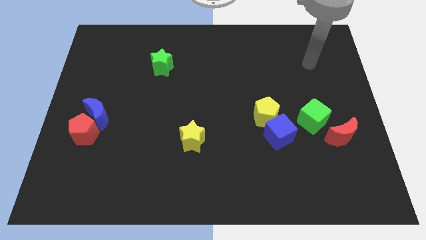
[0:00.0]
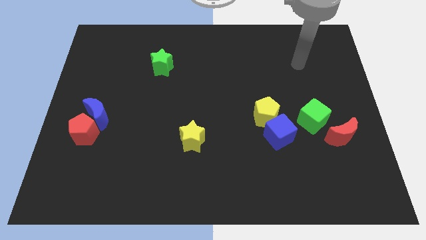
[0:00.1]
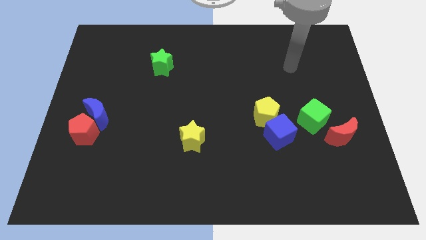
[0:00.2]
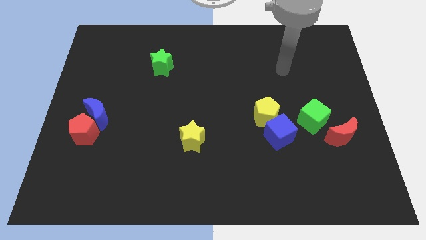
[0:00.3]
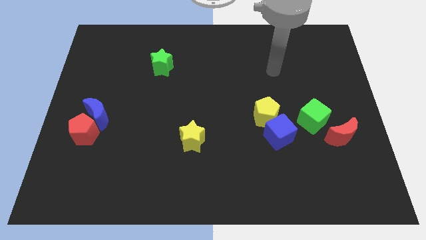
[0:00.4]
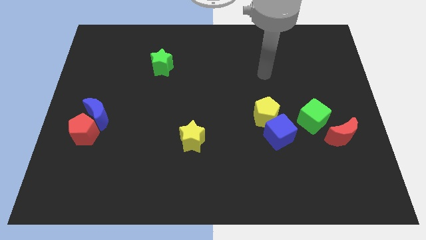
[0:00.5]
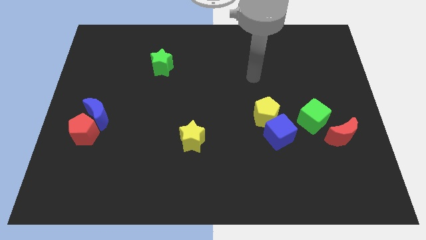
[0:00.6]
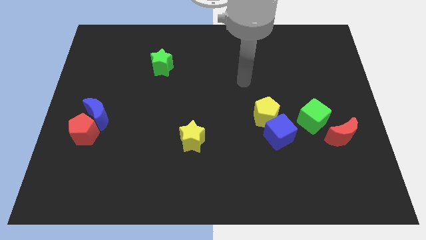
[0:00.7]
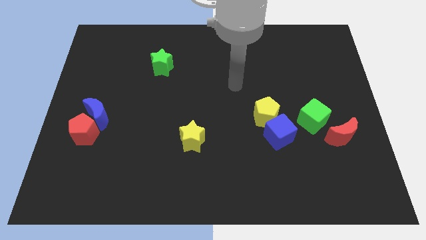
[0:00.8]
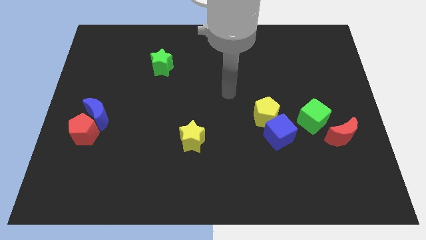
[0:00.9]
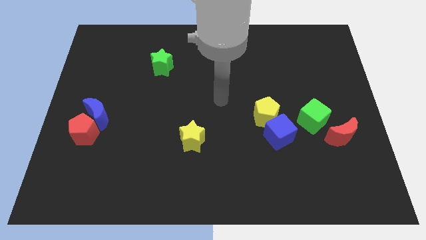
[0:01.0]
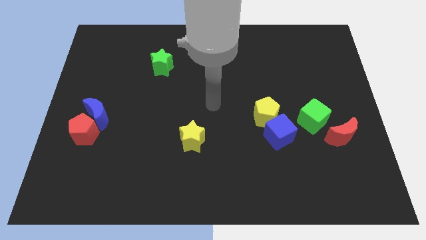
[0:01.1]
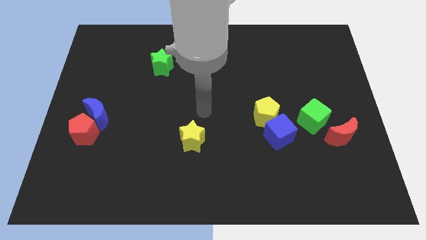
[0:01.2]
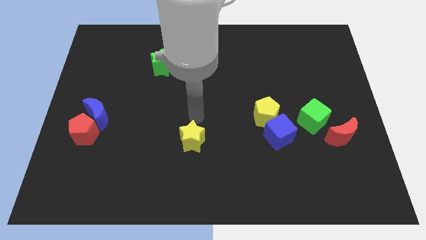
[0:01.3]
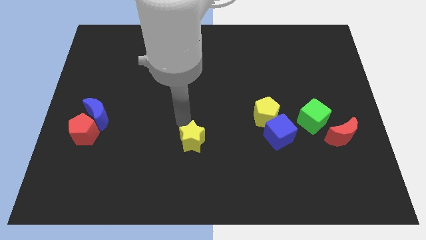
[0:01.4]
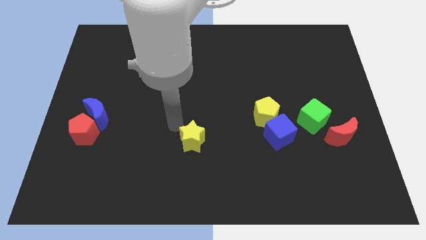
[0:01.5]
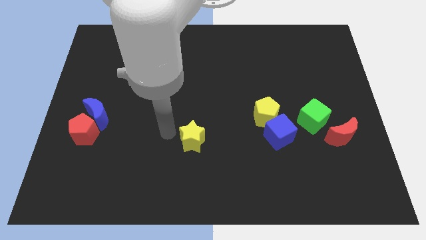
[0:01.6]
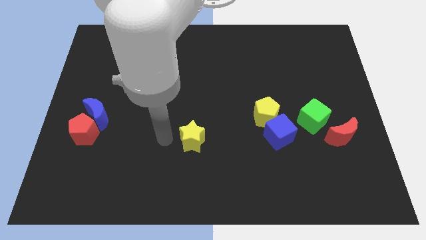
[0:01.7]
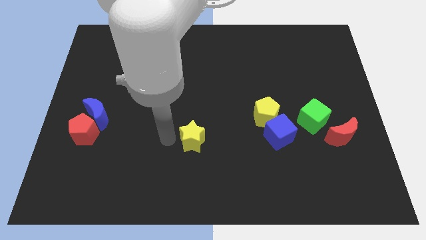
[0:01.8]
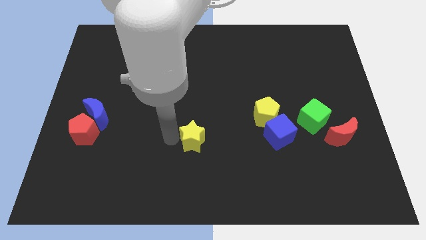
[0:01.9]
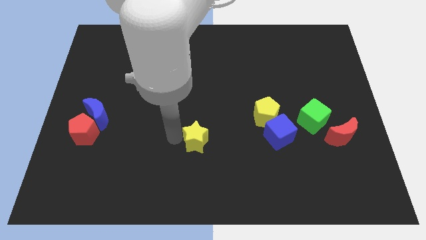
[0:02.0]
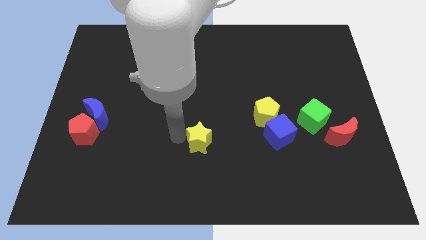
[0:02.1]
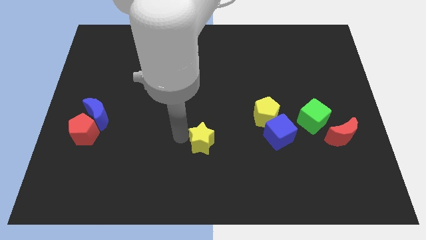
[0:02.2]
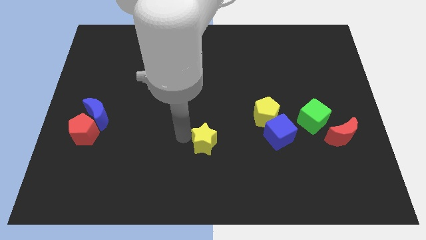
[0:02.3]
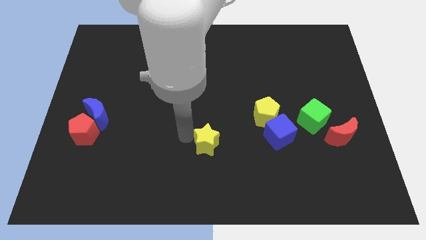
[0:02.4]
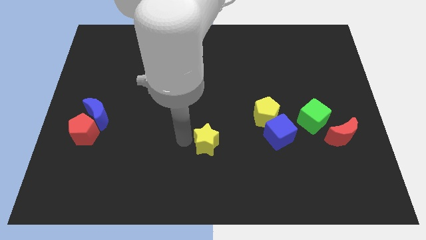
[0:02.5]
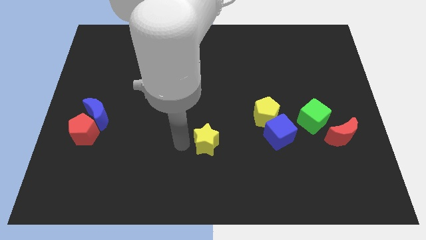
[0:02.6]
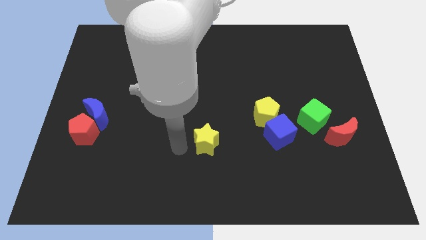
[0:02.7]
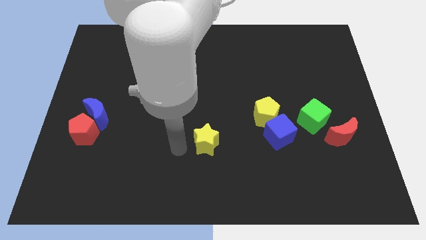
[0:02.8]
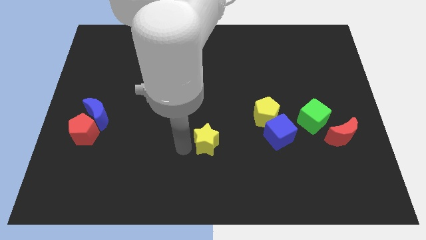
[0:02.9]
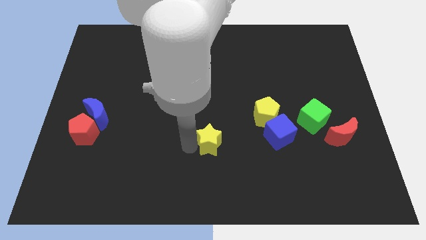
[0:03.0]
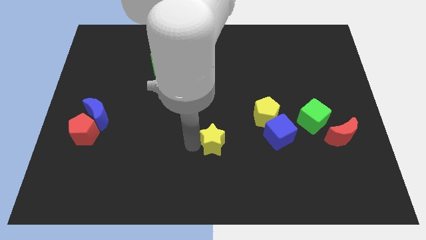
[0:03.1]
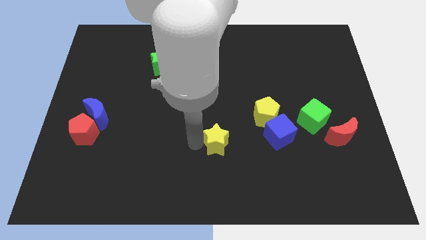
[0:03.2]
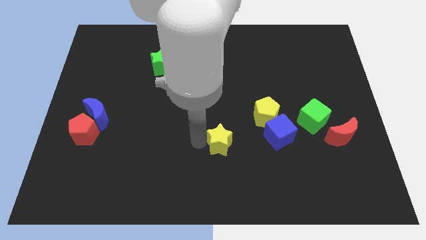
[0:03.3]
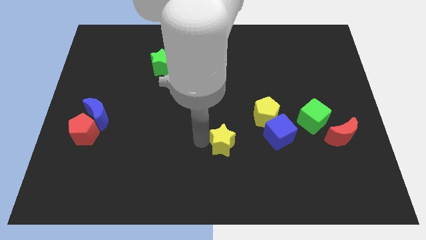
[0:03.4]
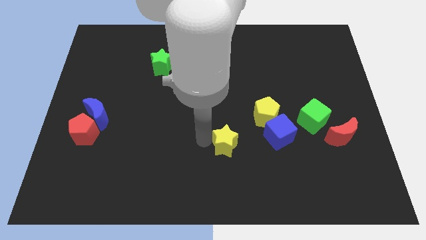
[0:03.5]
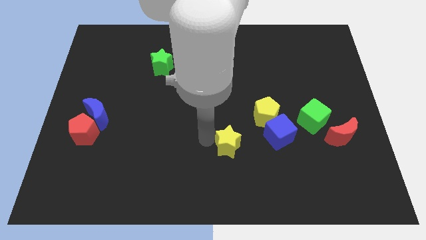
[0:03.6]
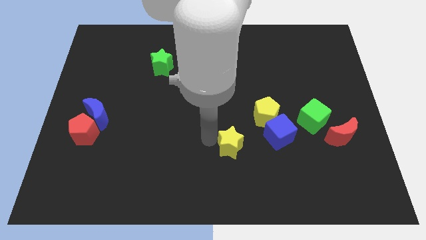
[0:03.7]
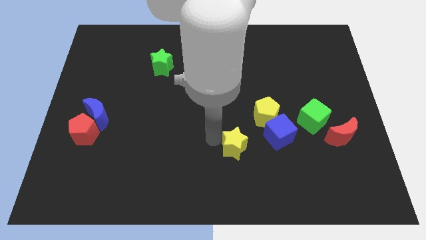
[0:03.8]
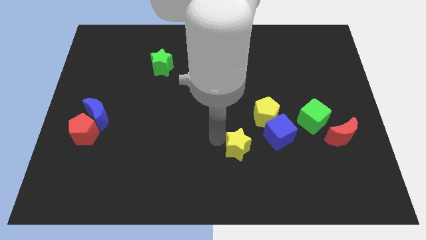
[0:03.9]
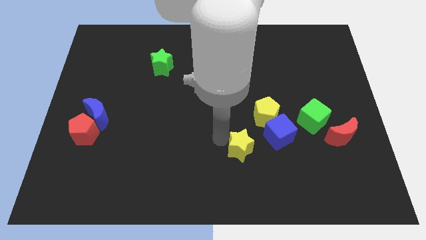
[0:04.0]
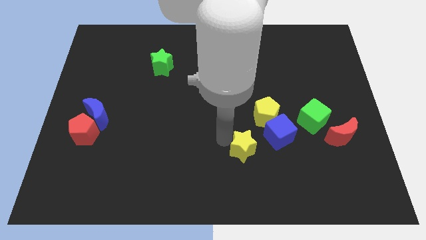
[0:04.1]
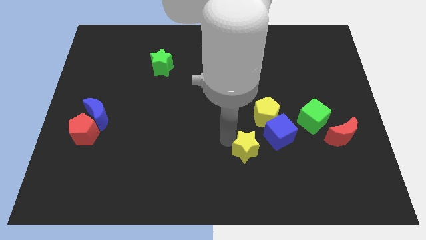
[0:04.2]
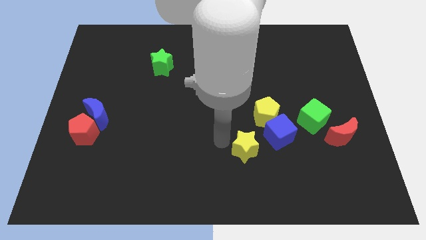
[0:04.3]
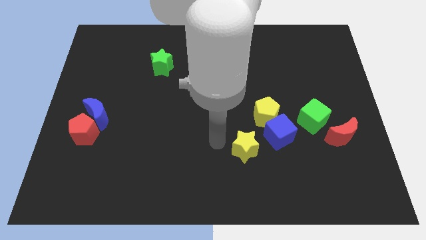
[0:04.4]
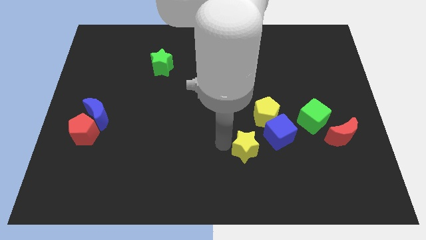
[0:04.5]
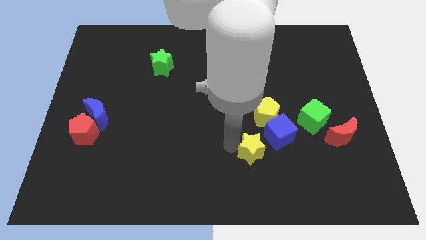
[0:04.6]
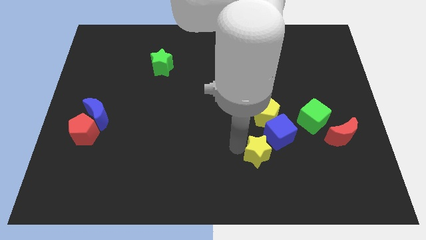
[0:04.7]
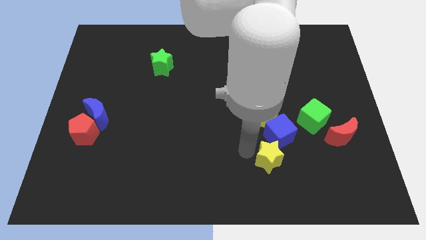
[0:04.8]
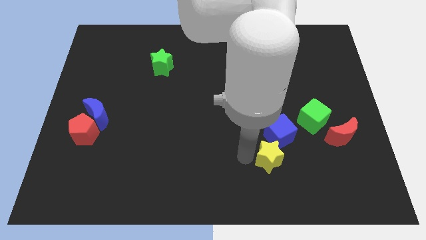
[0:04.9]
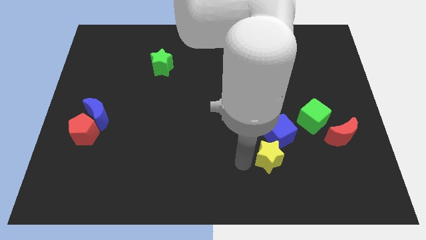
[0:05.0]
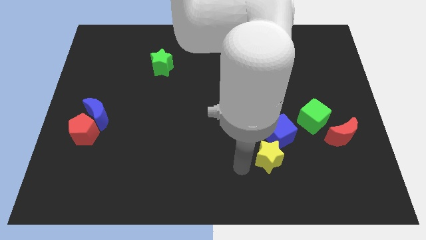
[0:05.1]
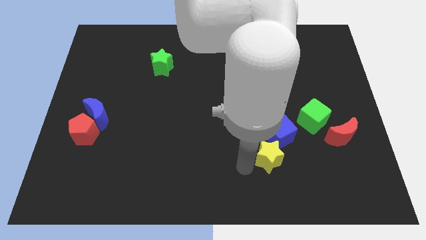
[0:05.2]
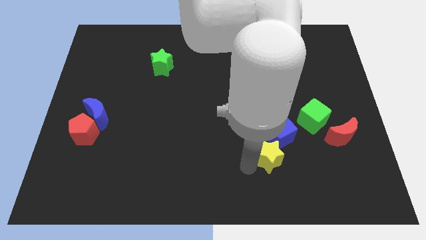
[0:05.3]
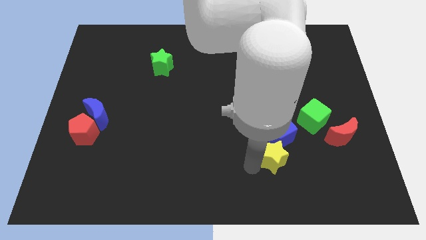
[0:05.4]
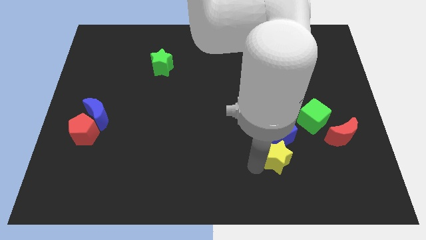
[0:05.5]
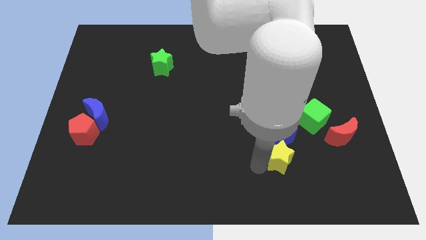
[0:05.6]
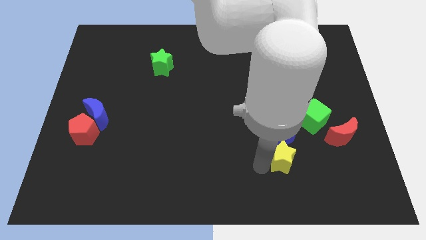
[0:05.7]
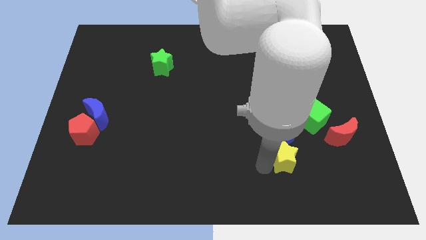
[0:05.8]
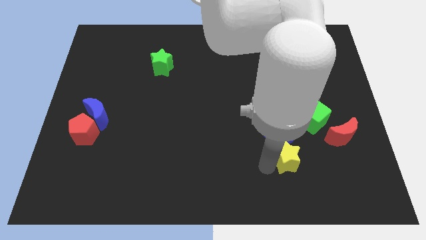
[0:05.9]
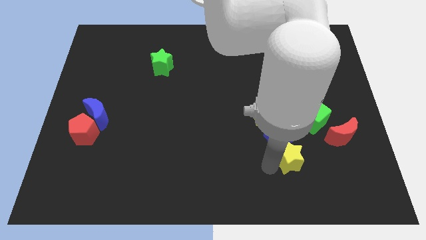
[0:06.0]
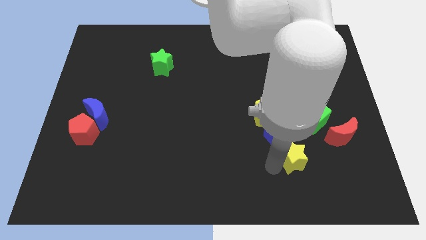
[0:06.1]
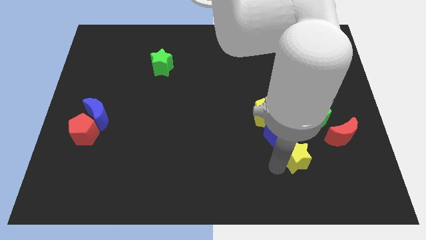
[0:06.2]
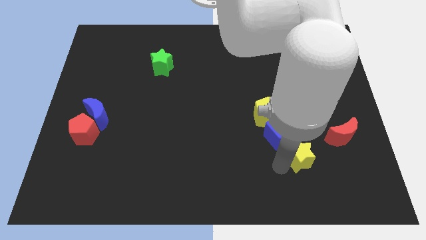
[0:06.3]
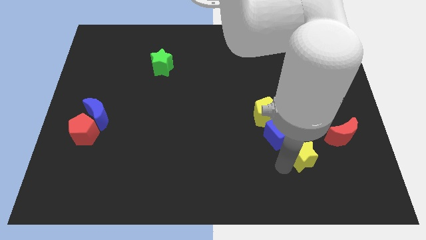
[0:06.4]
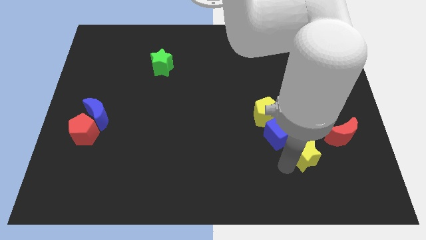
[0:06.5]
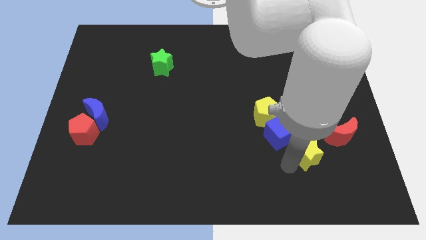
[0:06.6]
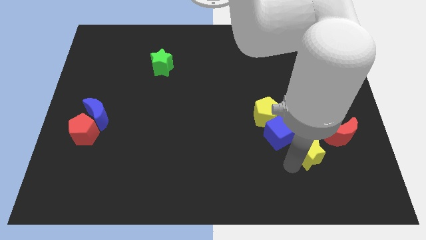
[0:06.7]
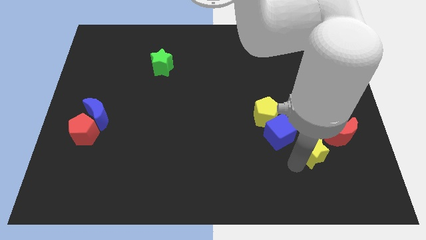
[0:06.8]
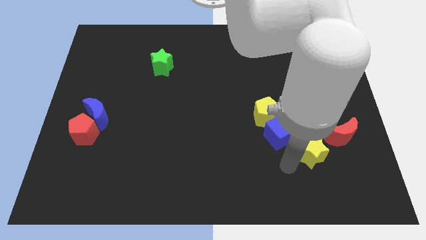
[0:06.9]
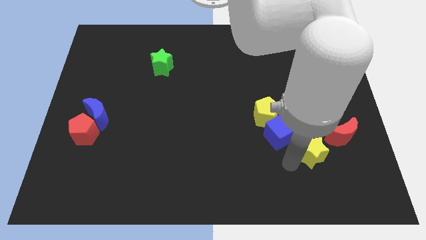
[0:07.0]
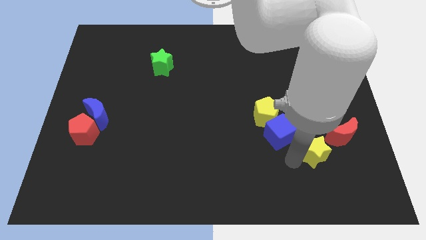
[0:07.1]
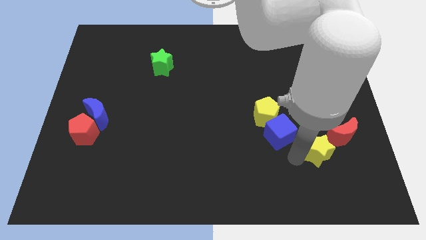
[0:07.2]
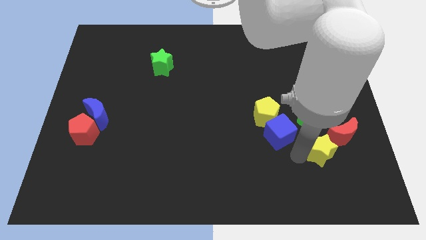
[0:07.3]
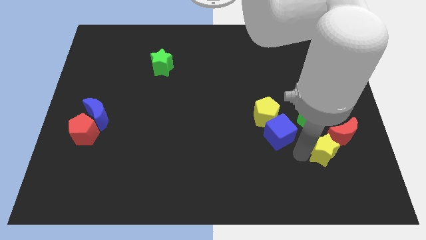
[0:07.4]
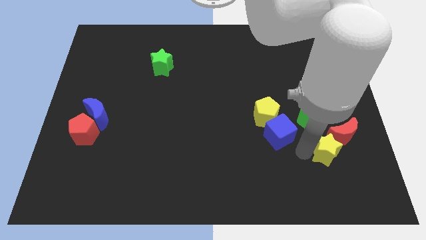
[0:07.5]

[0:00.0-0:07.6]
move the yellow star next to the red moon

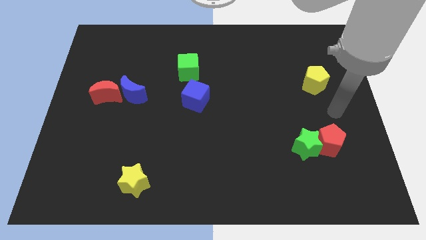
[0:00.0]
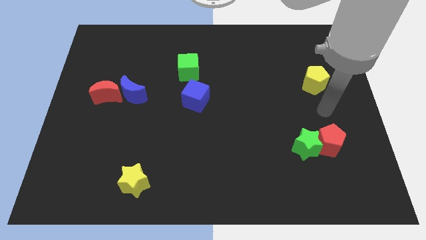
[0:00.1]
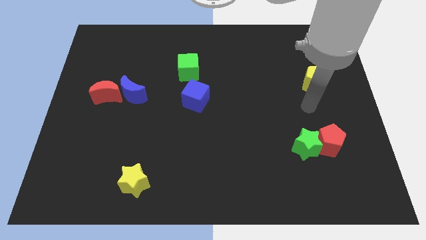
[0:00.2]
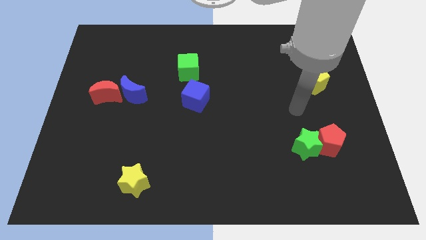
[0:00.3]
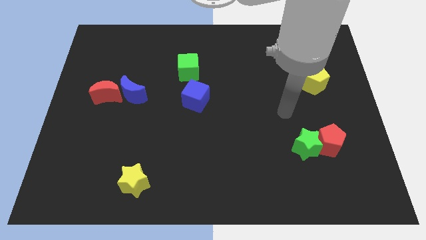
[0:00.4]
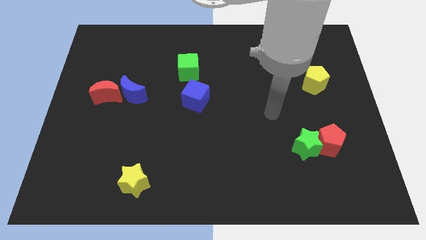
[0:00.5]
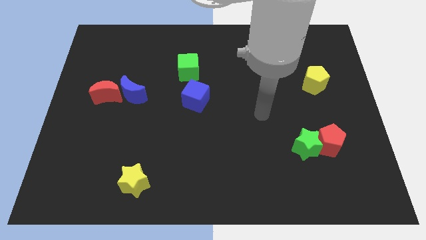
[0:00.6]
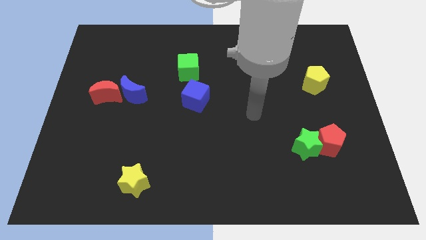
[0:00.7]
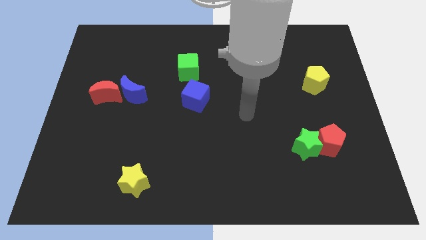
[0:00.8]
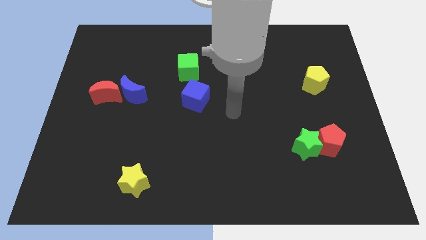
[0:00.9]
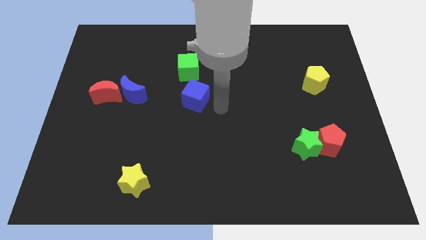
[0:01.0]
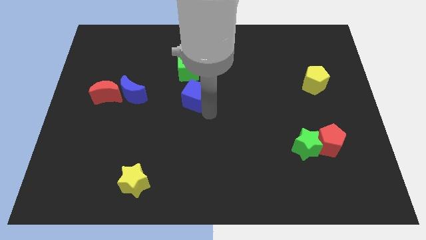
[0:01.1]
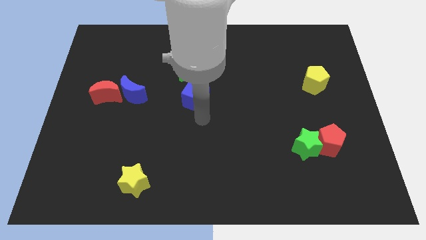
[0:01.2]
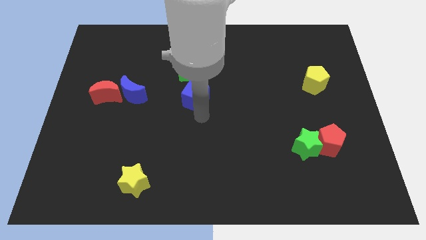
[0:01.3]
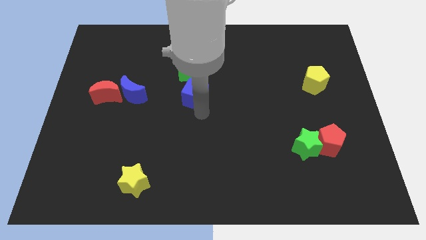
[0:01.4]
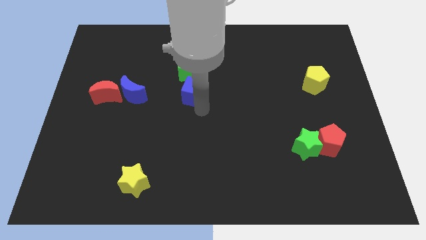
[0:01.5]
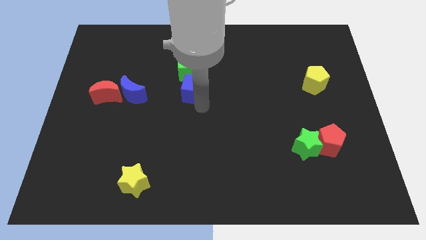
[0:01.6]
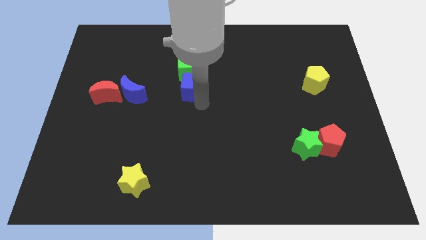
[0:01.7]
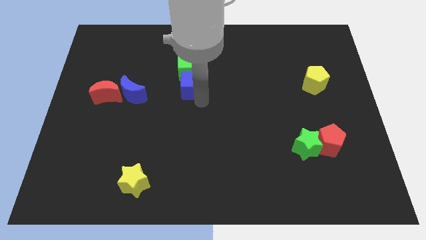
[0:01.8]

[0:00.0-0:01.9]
move the blue cube next to the green cube
